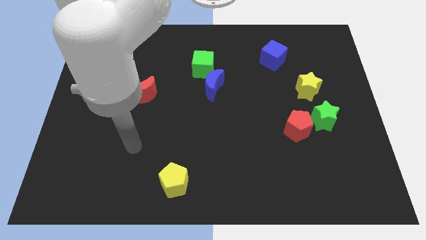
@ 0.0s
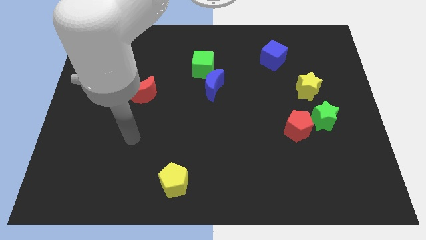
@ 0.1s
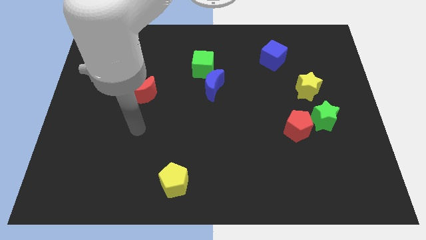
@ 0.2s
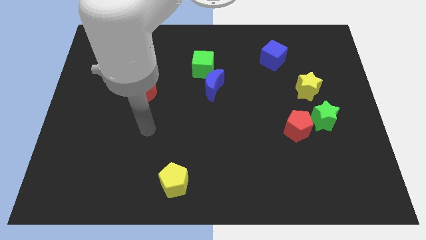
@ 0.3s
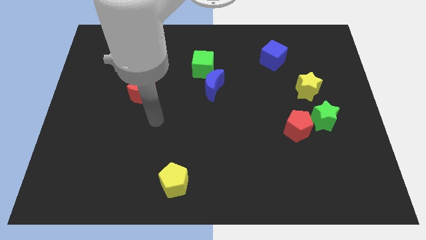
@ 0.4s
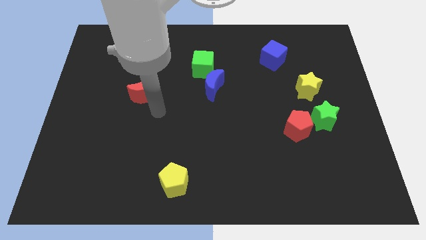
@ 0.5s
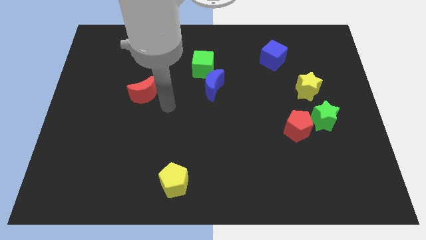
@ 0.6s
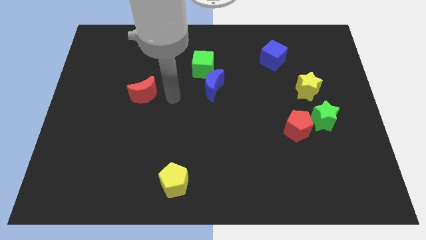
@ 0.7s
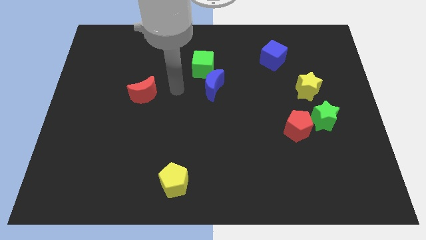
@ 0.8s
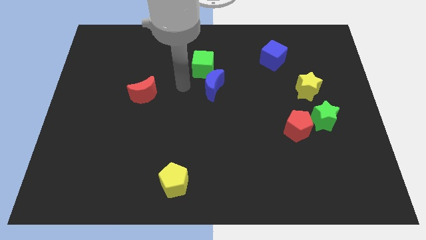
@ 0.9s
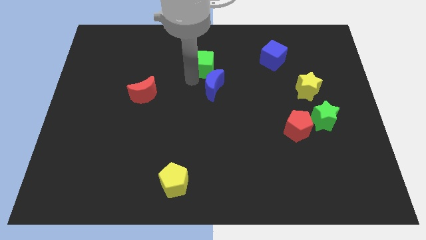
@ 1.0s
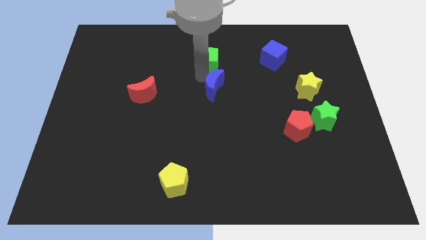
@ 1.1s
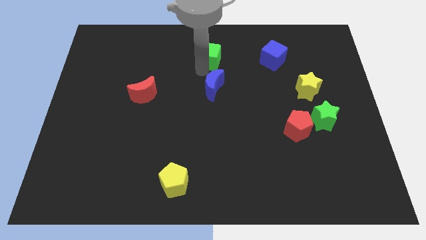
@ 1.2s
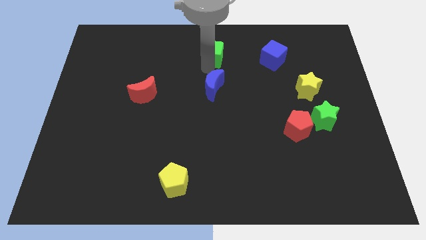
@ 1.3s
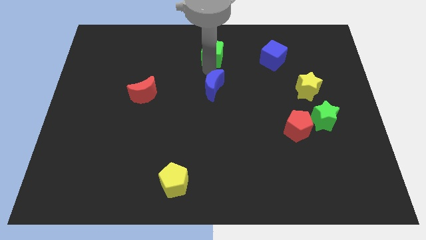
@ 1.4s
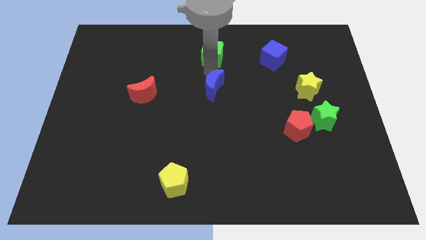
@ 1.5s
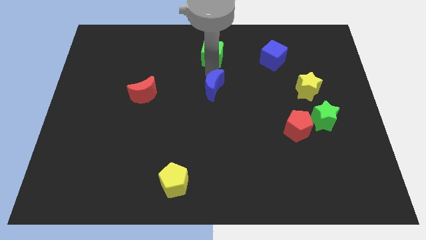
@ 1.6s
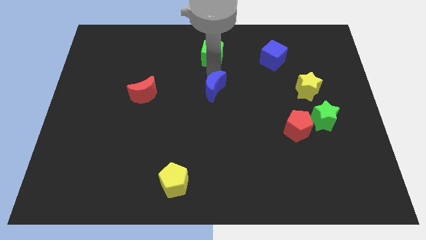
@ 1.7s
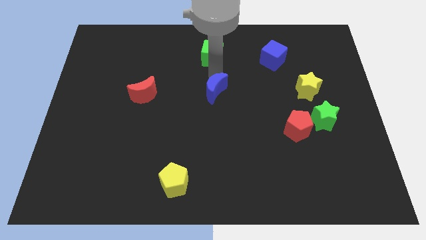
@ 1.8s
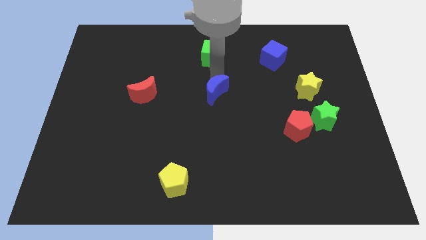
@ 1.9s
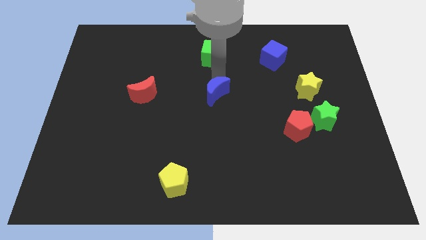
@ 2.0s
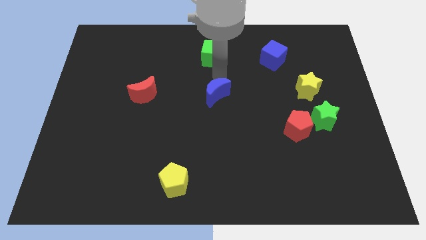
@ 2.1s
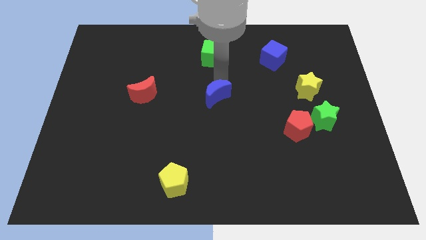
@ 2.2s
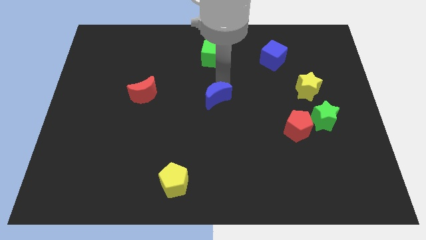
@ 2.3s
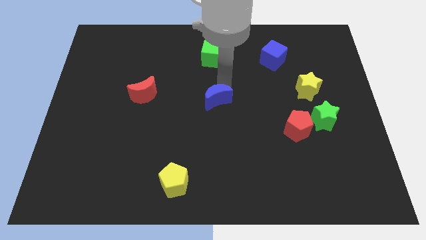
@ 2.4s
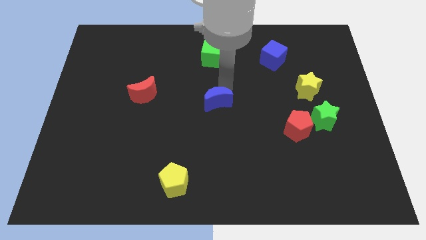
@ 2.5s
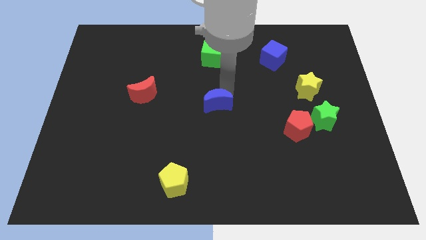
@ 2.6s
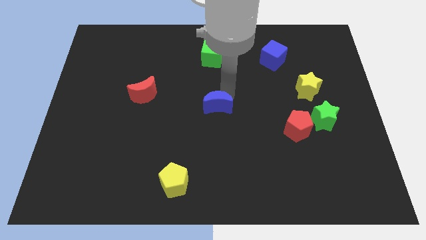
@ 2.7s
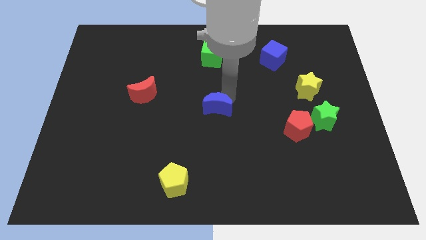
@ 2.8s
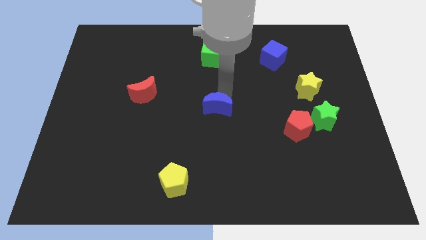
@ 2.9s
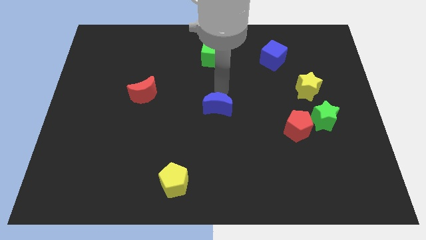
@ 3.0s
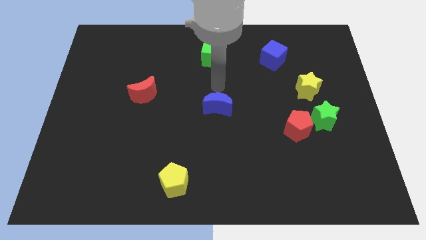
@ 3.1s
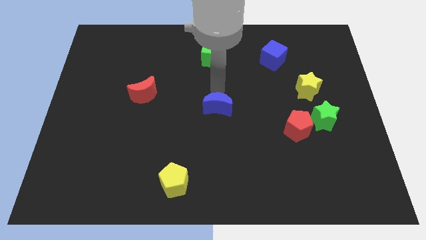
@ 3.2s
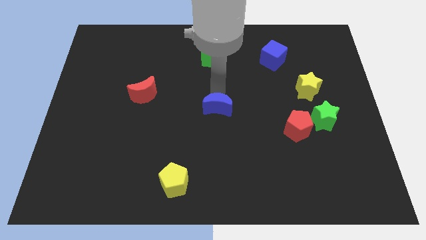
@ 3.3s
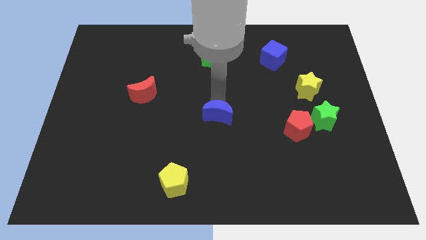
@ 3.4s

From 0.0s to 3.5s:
push the blue moon a bit down

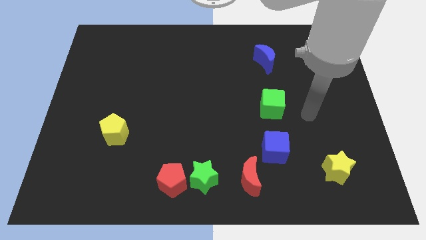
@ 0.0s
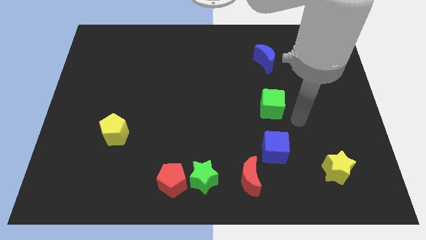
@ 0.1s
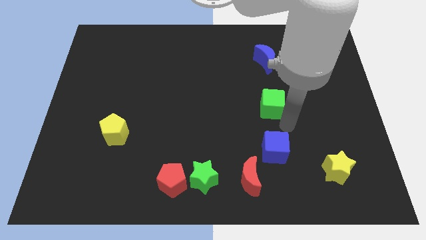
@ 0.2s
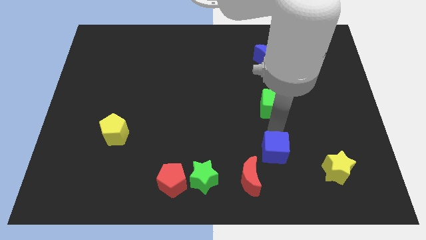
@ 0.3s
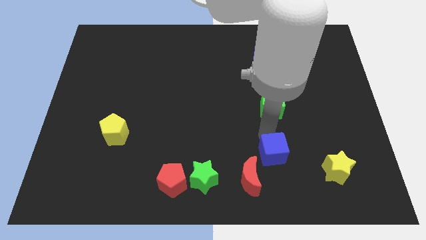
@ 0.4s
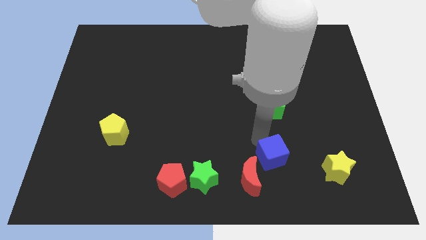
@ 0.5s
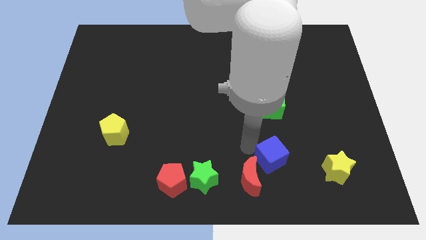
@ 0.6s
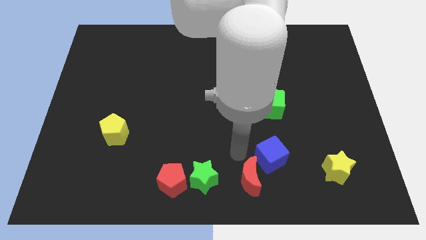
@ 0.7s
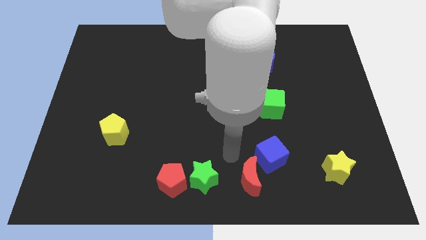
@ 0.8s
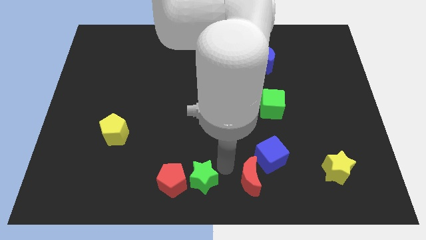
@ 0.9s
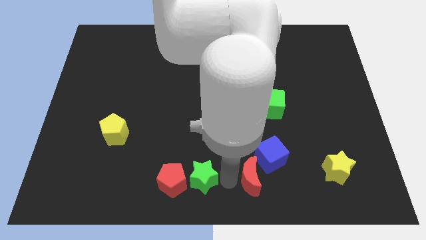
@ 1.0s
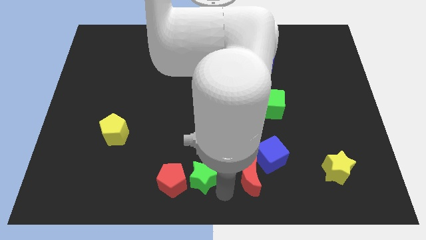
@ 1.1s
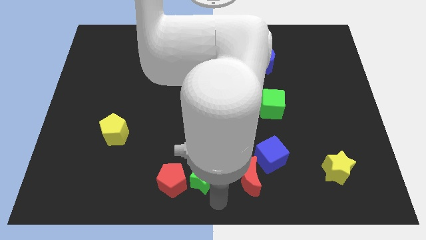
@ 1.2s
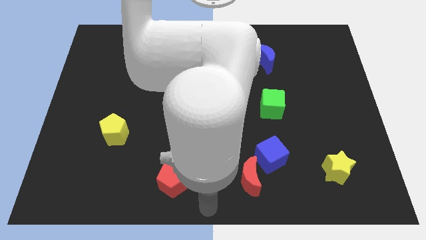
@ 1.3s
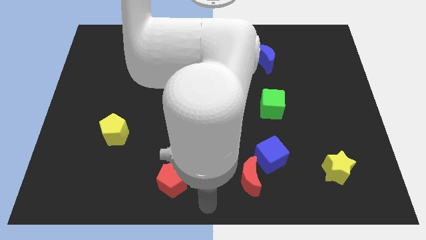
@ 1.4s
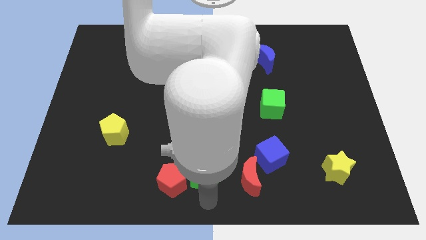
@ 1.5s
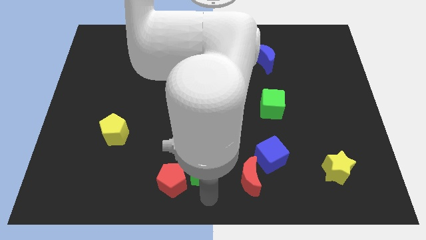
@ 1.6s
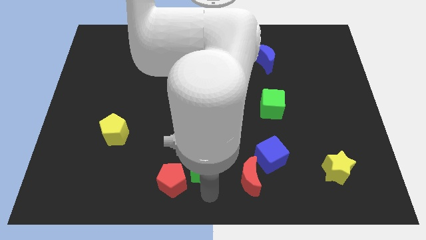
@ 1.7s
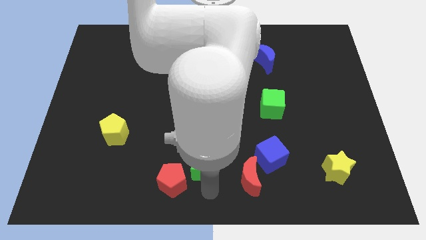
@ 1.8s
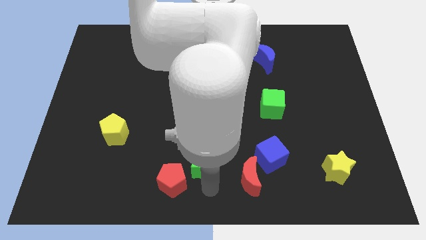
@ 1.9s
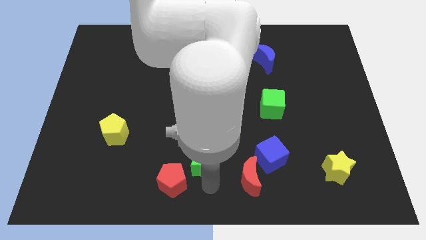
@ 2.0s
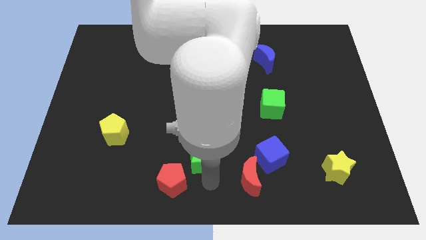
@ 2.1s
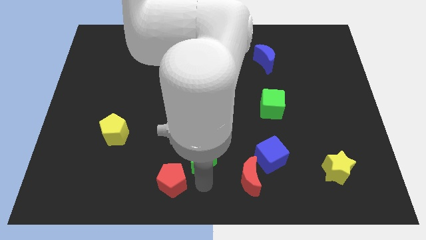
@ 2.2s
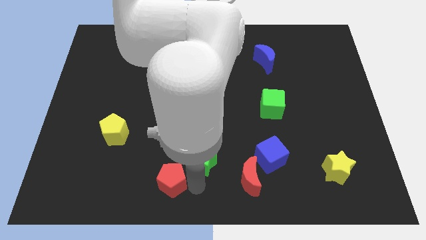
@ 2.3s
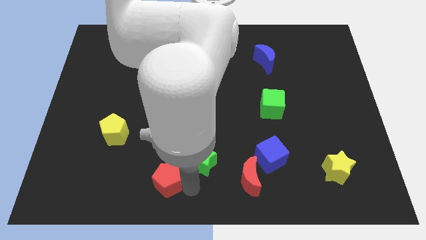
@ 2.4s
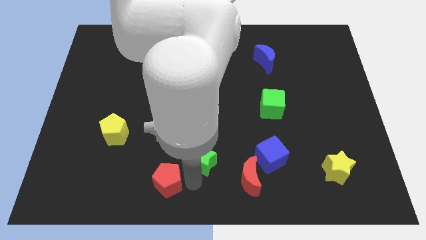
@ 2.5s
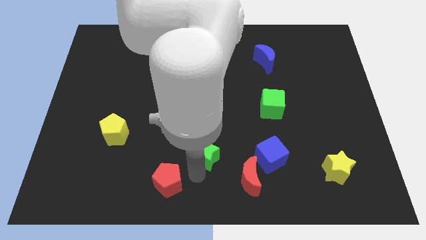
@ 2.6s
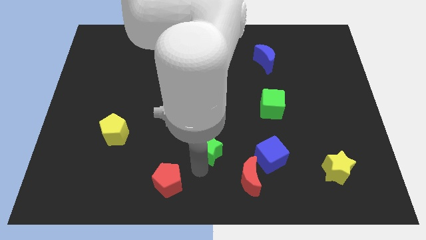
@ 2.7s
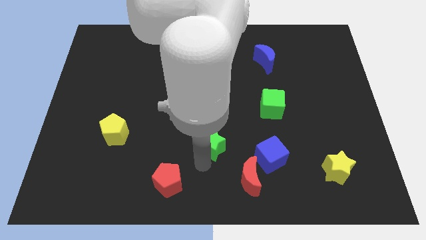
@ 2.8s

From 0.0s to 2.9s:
push the green star somewhat up

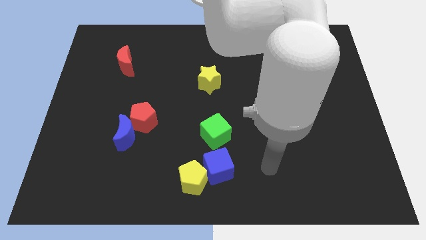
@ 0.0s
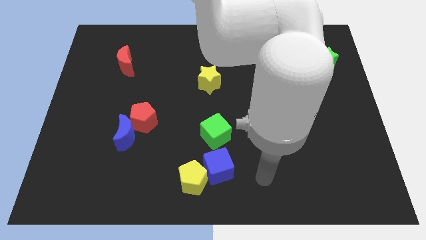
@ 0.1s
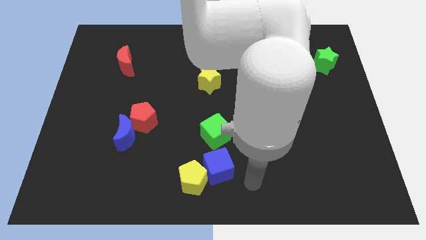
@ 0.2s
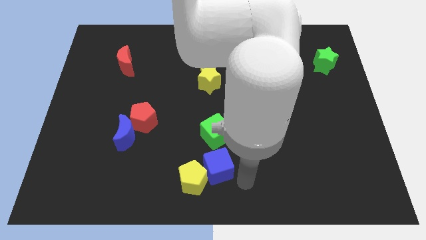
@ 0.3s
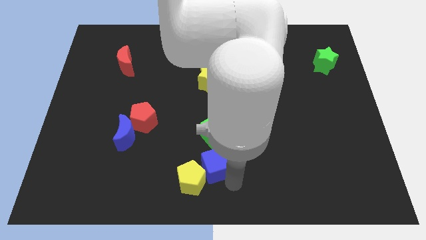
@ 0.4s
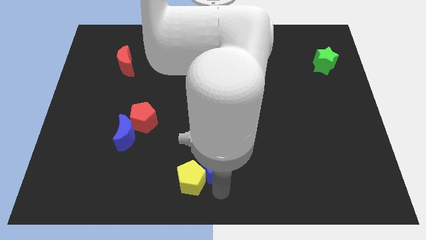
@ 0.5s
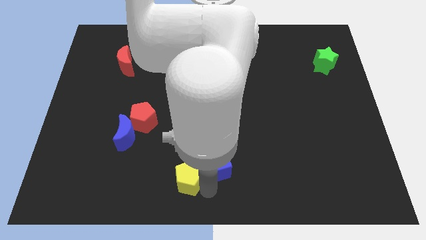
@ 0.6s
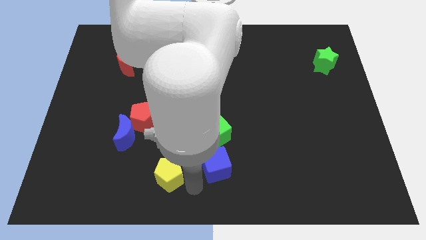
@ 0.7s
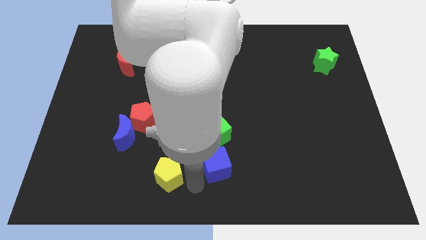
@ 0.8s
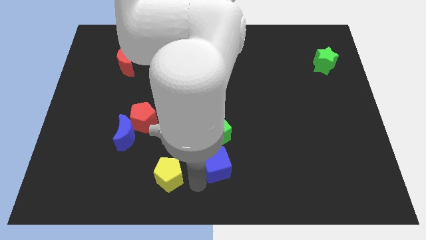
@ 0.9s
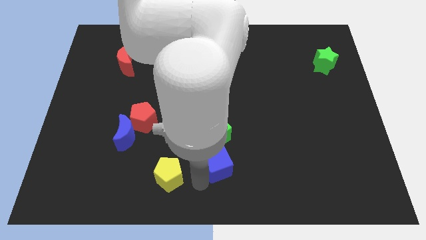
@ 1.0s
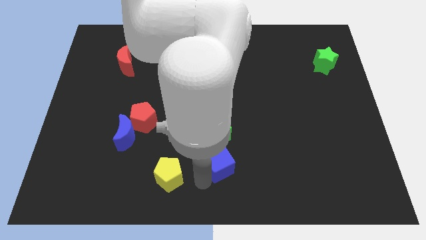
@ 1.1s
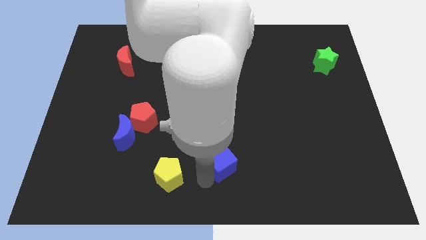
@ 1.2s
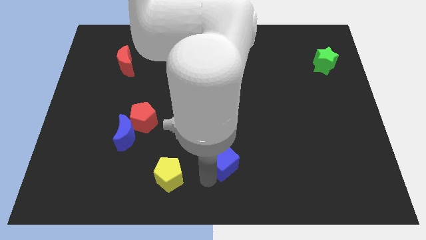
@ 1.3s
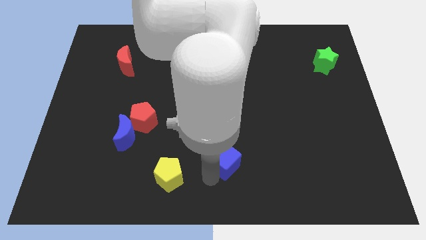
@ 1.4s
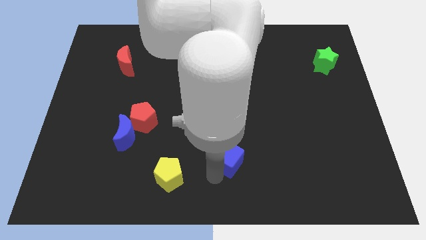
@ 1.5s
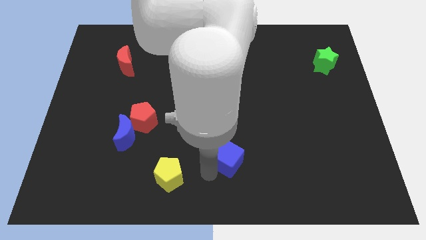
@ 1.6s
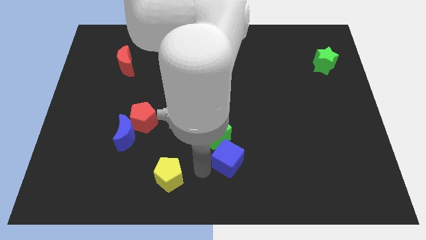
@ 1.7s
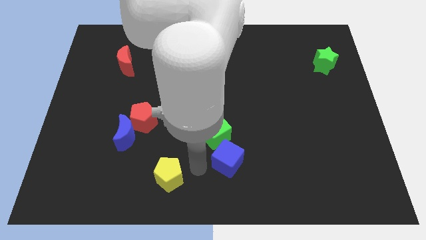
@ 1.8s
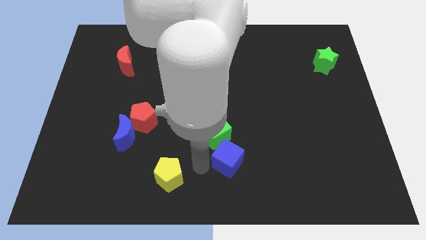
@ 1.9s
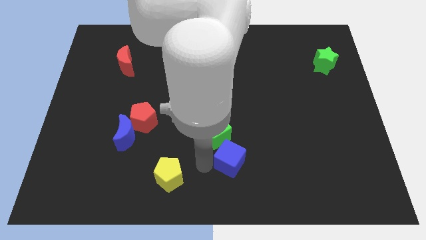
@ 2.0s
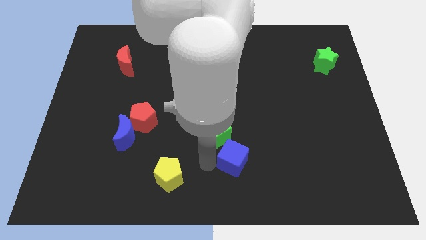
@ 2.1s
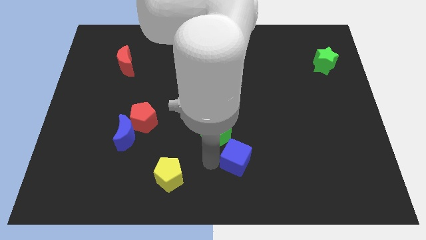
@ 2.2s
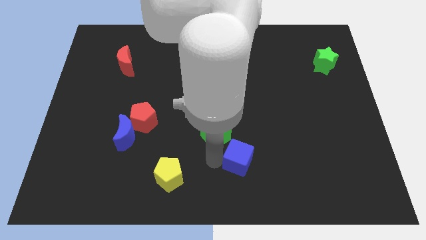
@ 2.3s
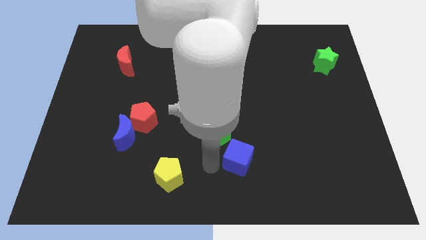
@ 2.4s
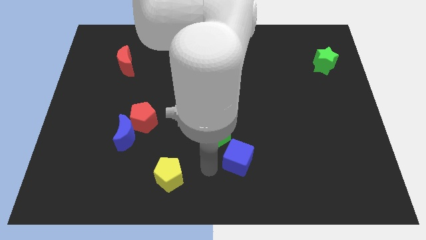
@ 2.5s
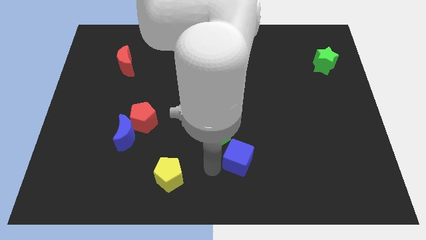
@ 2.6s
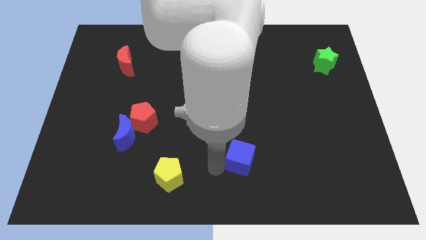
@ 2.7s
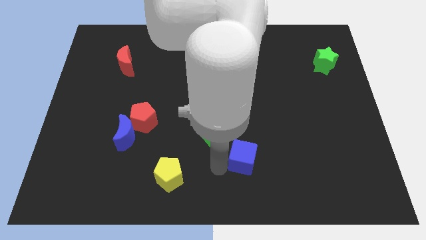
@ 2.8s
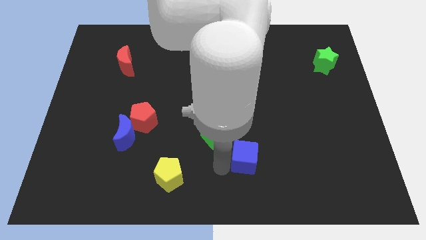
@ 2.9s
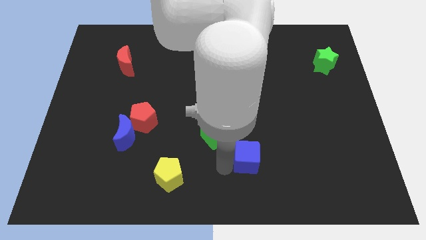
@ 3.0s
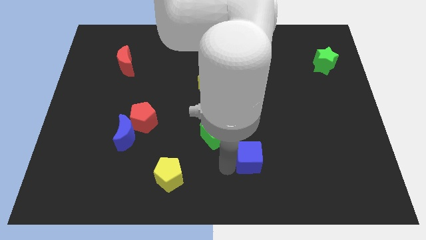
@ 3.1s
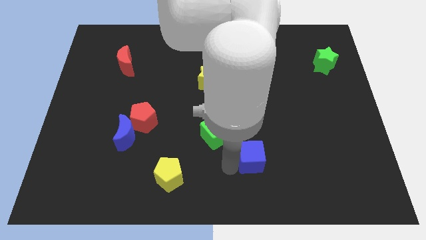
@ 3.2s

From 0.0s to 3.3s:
push the blue cube right slightly
